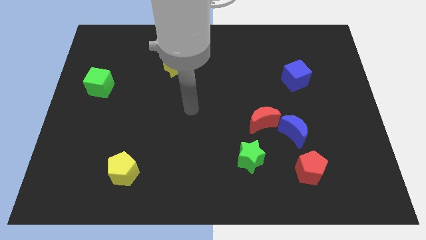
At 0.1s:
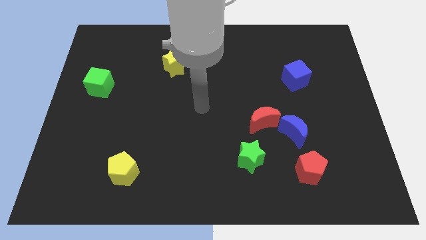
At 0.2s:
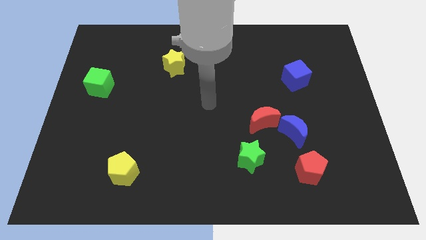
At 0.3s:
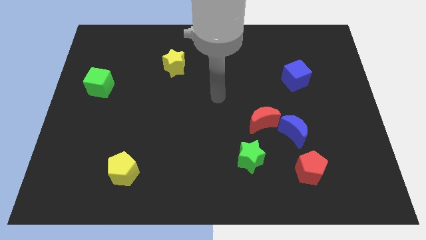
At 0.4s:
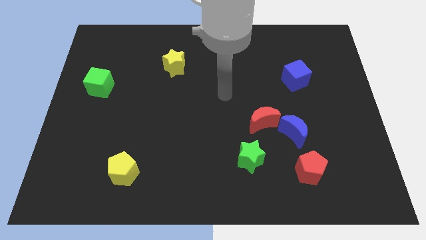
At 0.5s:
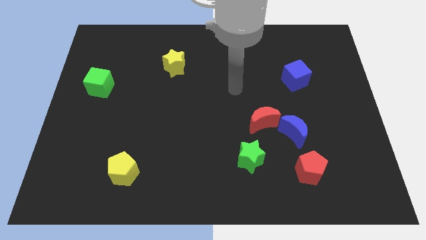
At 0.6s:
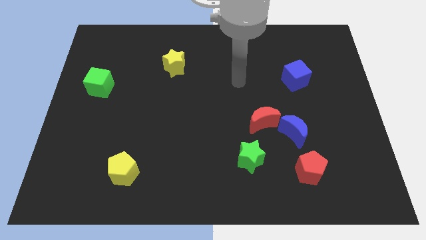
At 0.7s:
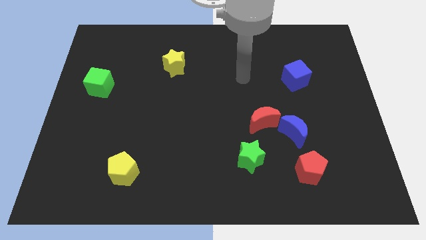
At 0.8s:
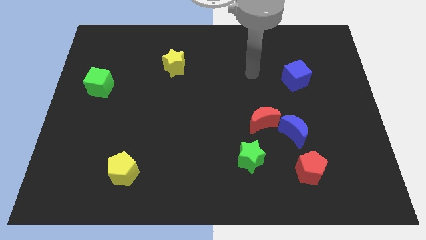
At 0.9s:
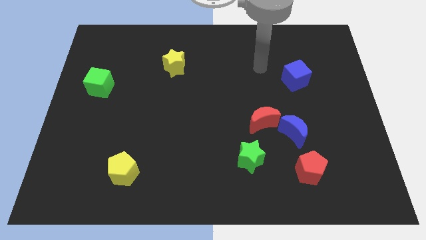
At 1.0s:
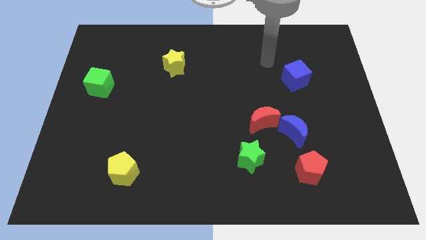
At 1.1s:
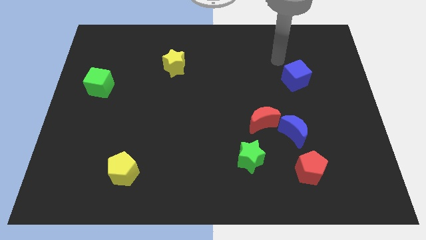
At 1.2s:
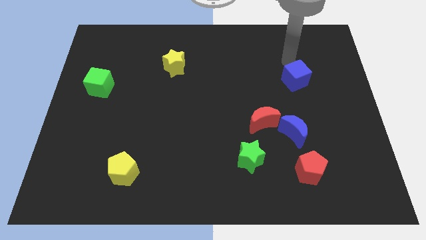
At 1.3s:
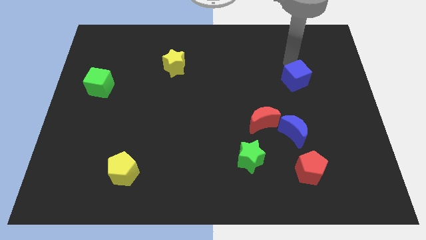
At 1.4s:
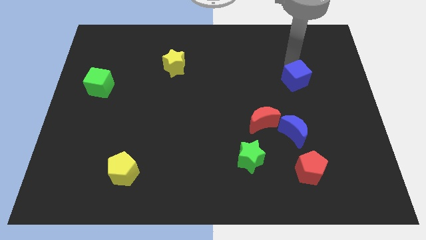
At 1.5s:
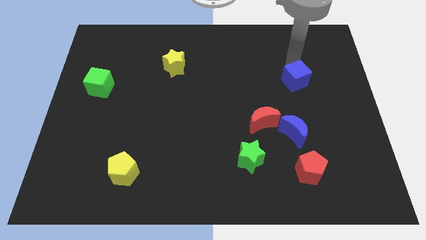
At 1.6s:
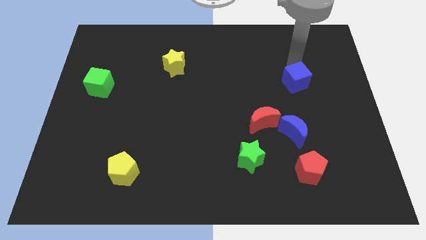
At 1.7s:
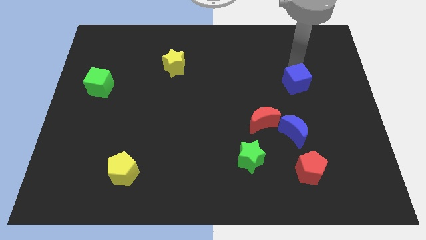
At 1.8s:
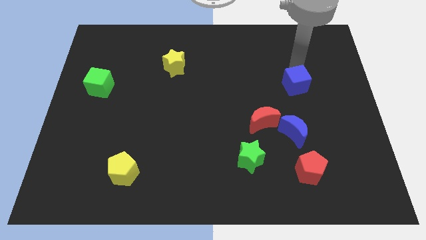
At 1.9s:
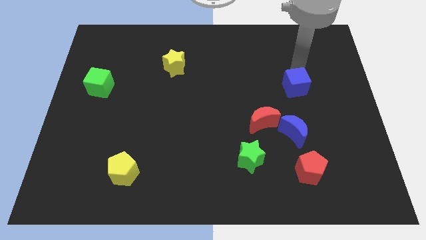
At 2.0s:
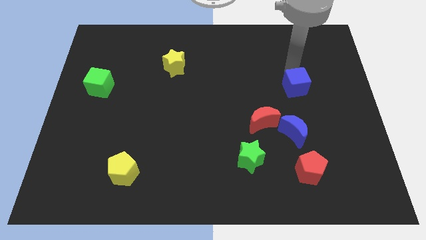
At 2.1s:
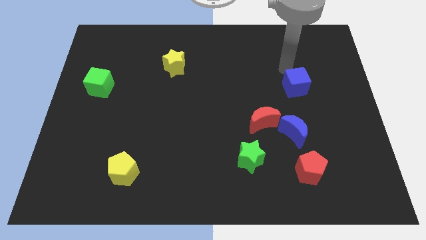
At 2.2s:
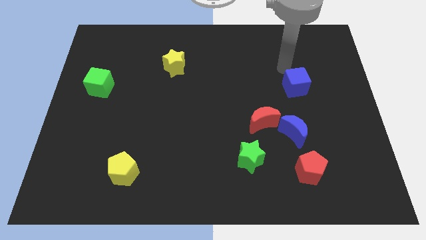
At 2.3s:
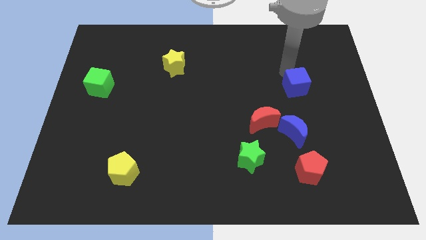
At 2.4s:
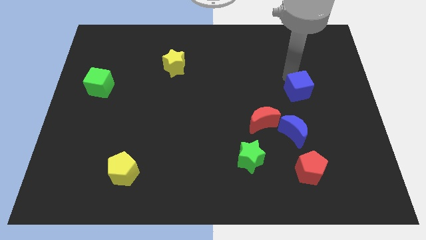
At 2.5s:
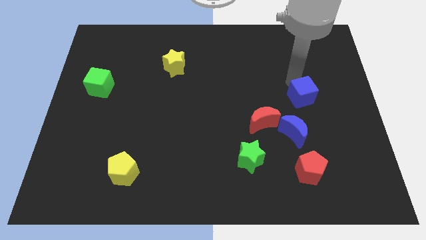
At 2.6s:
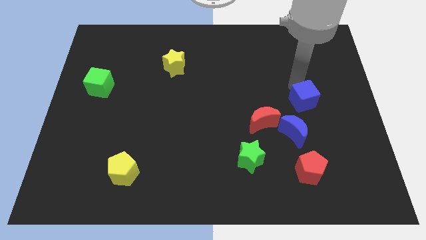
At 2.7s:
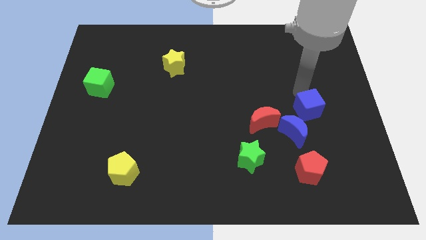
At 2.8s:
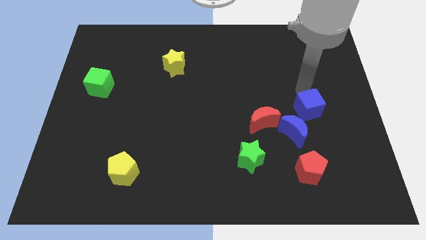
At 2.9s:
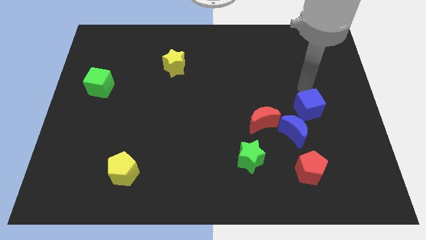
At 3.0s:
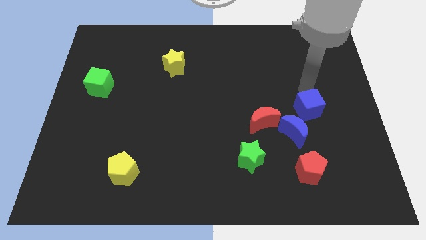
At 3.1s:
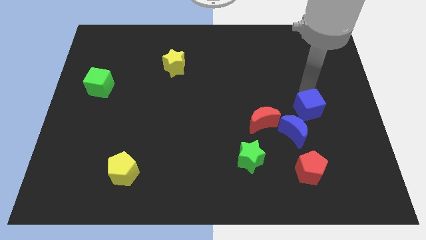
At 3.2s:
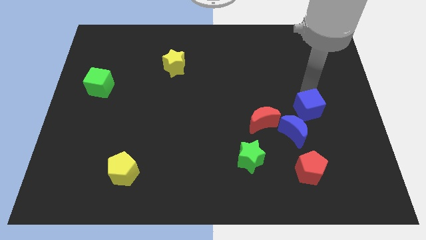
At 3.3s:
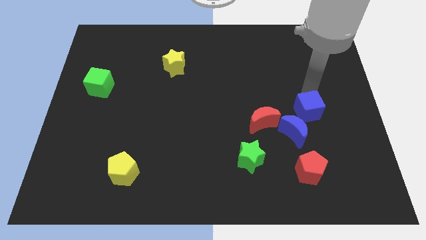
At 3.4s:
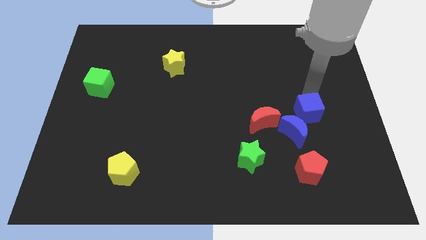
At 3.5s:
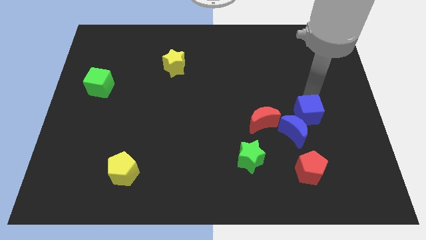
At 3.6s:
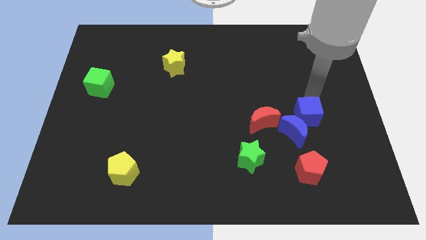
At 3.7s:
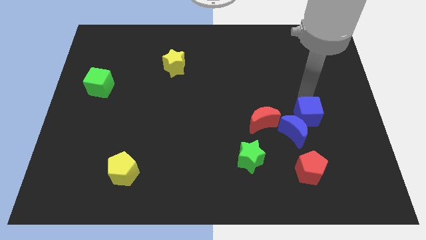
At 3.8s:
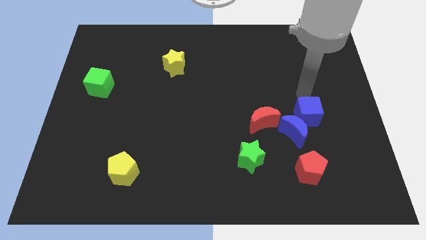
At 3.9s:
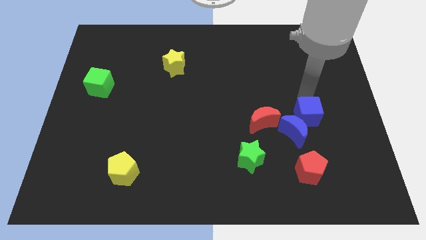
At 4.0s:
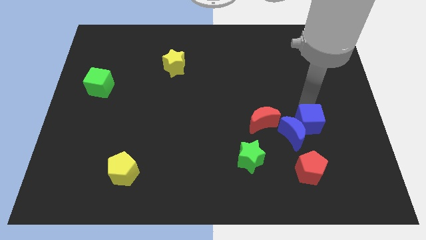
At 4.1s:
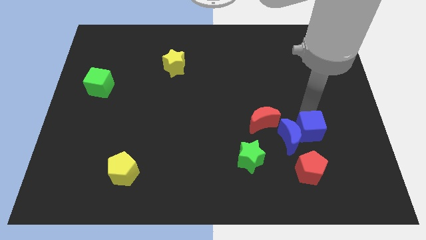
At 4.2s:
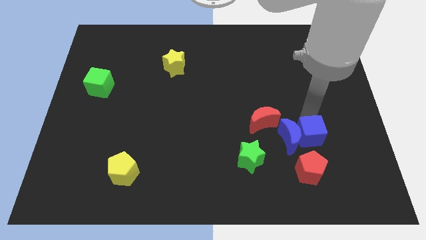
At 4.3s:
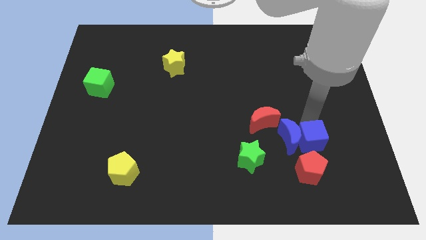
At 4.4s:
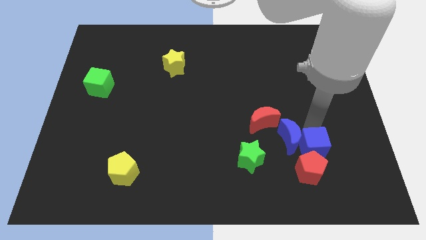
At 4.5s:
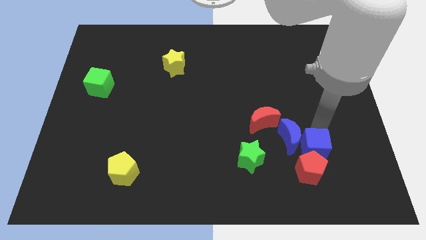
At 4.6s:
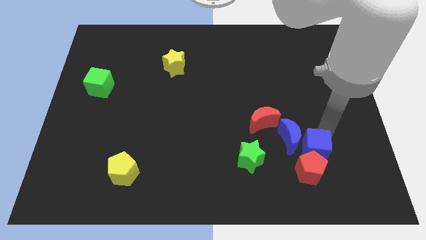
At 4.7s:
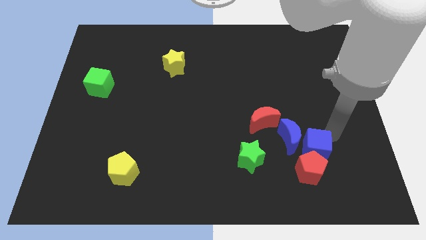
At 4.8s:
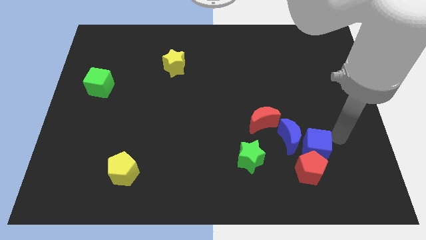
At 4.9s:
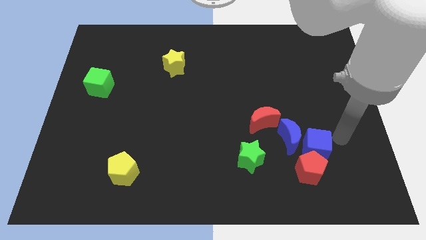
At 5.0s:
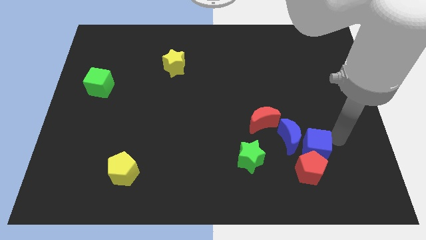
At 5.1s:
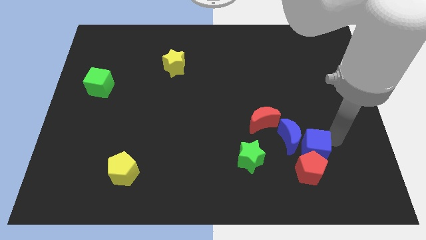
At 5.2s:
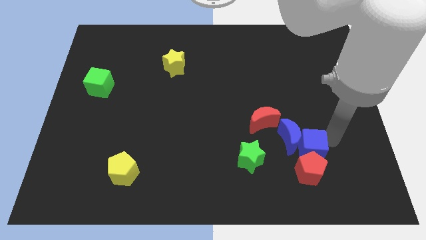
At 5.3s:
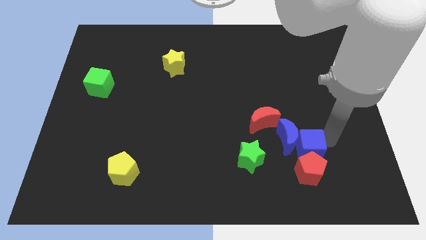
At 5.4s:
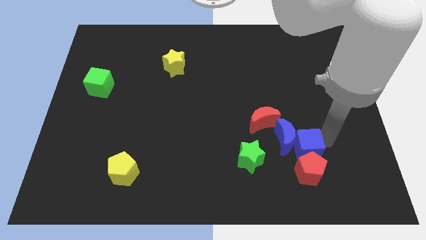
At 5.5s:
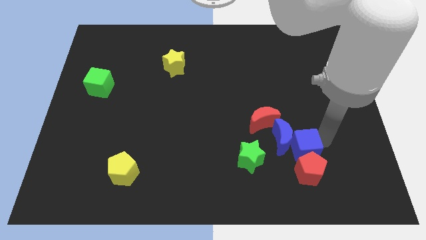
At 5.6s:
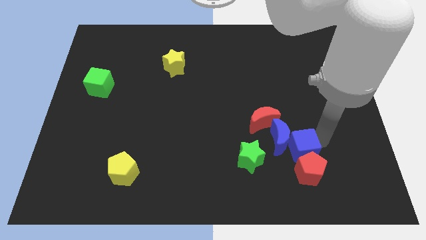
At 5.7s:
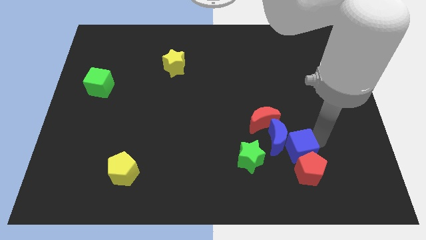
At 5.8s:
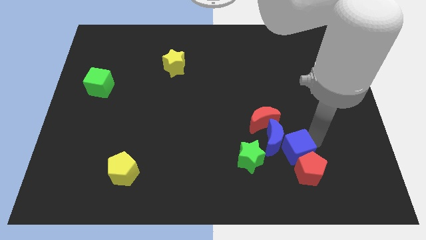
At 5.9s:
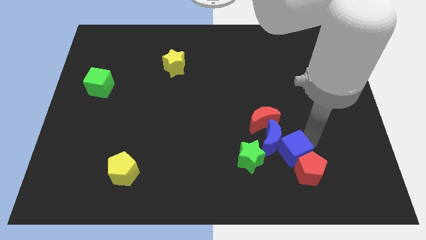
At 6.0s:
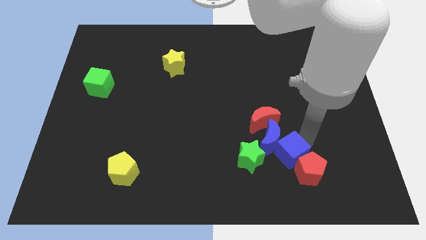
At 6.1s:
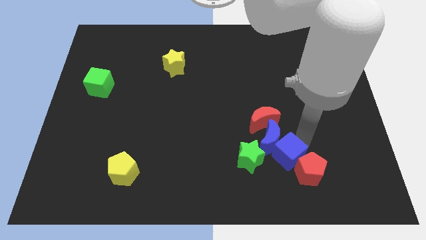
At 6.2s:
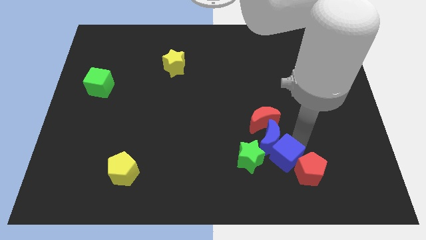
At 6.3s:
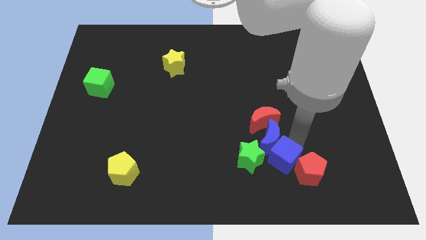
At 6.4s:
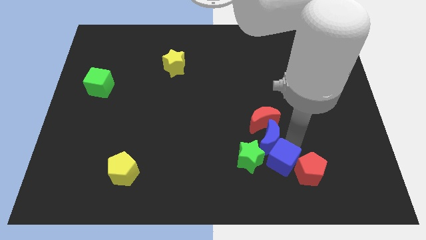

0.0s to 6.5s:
move the blue cube diagonally down and to the right of the green star
